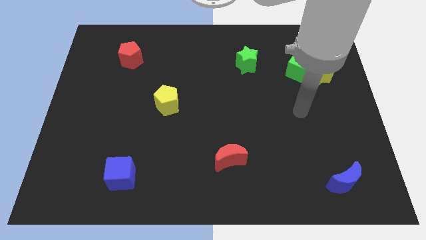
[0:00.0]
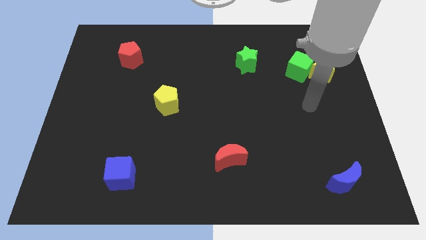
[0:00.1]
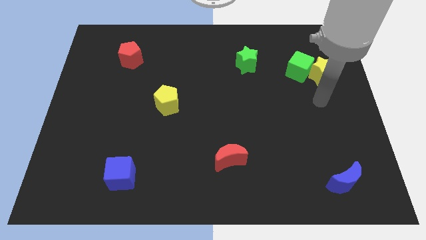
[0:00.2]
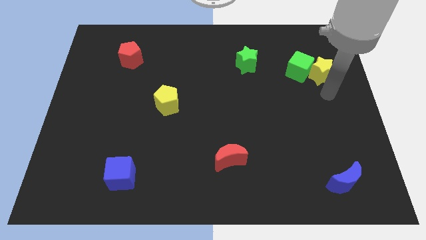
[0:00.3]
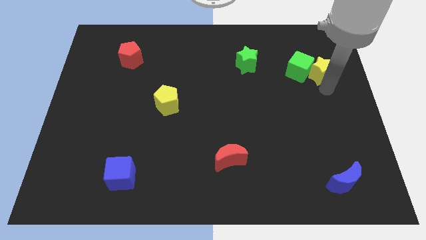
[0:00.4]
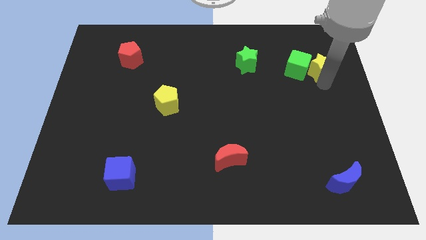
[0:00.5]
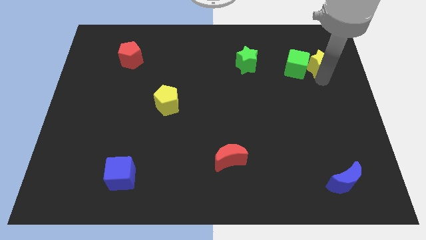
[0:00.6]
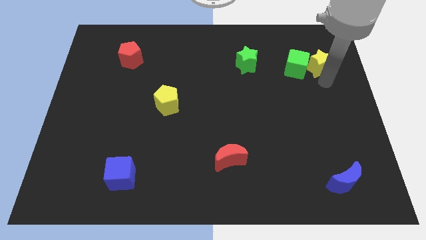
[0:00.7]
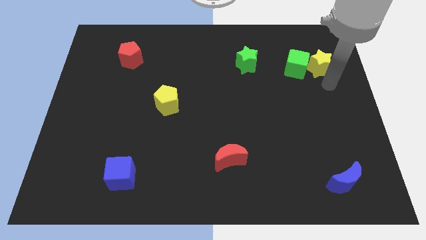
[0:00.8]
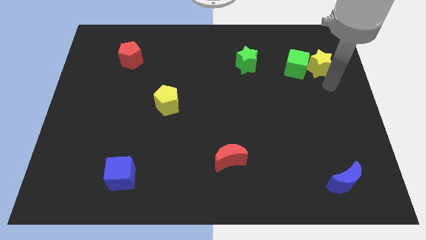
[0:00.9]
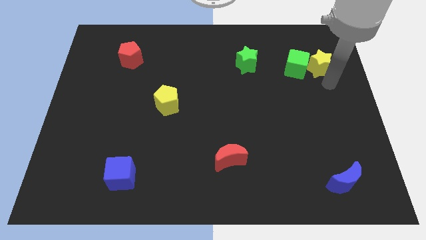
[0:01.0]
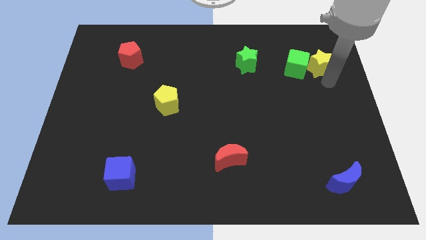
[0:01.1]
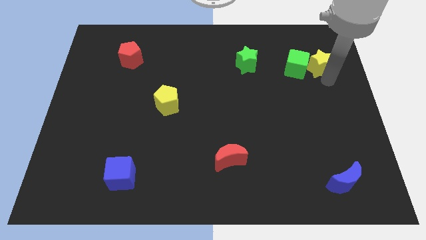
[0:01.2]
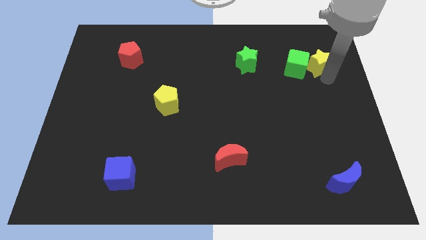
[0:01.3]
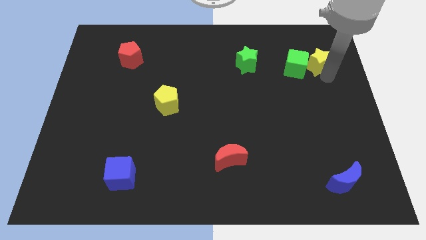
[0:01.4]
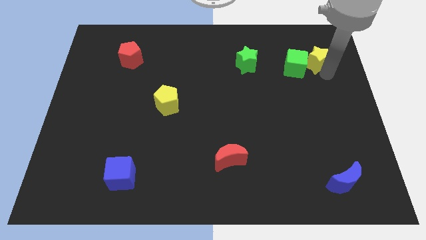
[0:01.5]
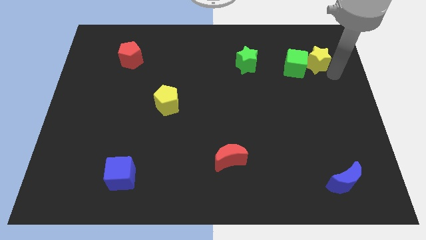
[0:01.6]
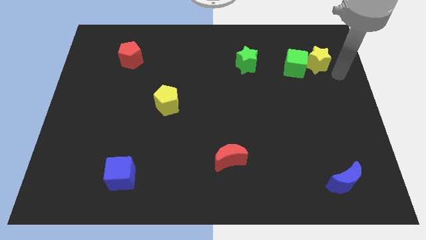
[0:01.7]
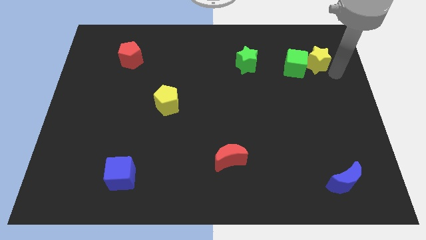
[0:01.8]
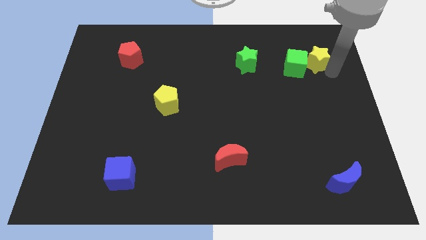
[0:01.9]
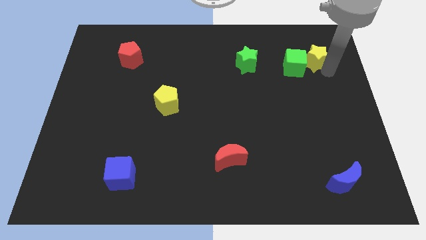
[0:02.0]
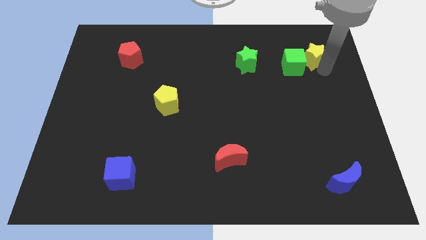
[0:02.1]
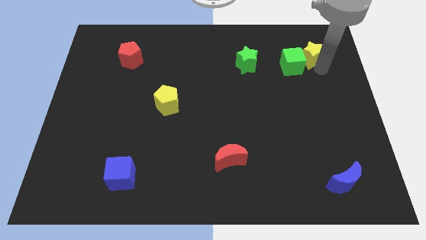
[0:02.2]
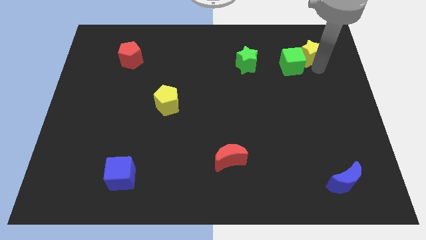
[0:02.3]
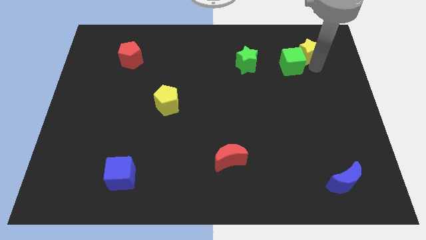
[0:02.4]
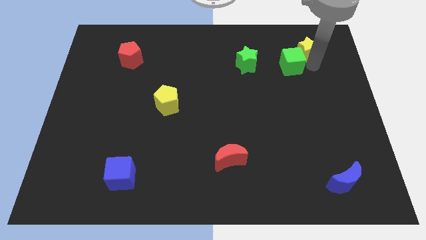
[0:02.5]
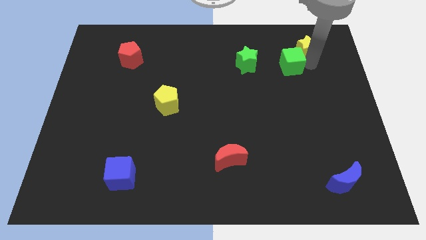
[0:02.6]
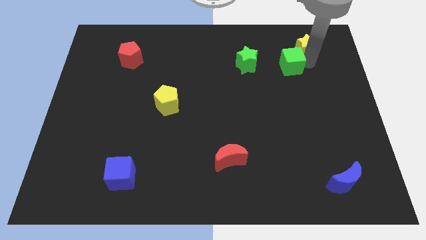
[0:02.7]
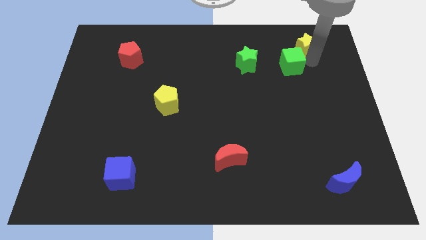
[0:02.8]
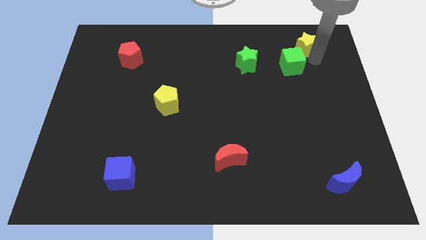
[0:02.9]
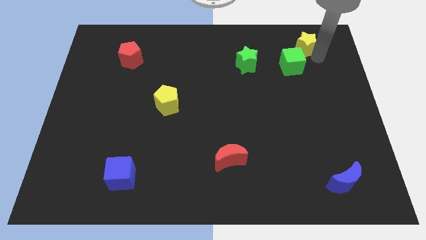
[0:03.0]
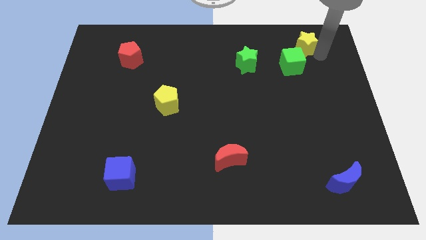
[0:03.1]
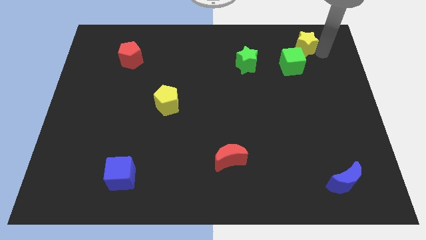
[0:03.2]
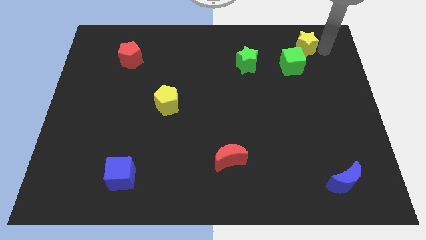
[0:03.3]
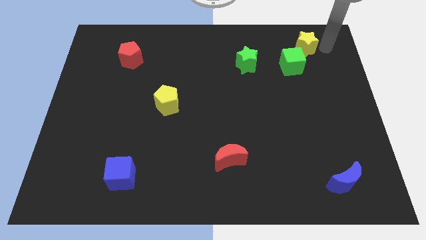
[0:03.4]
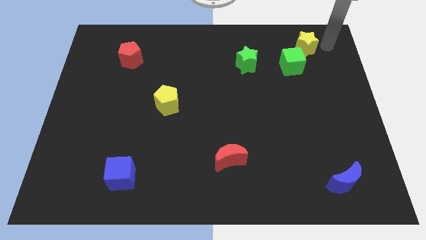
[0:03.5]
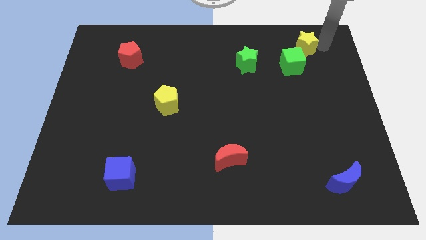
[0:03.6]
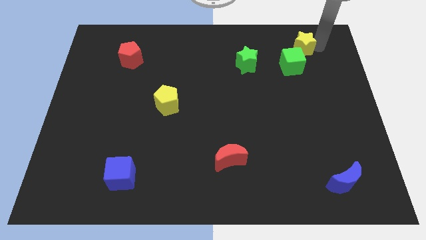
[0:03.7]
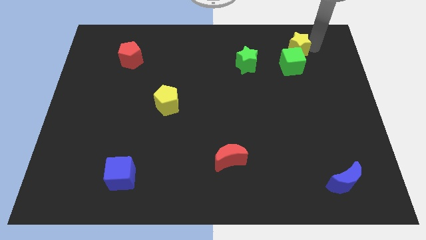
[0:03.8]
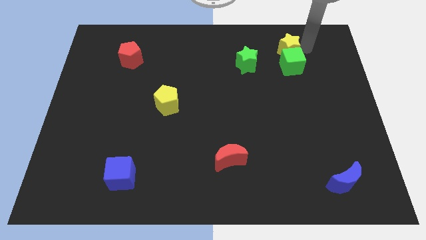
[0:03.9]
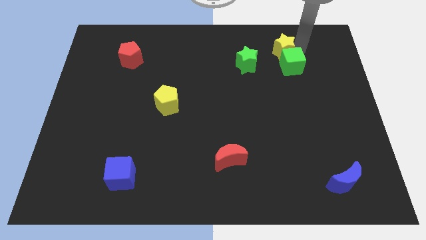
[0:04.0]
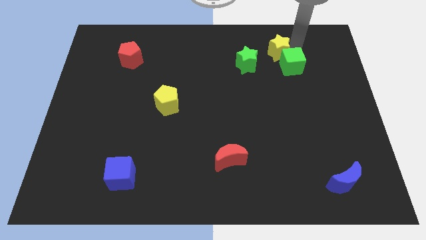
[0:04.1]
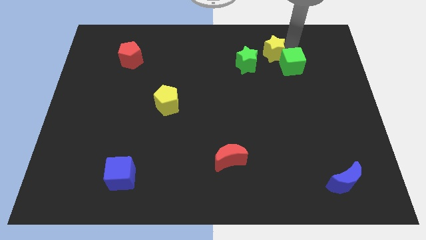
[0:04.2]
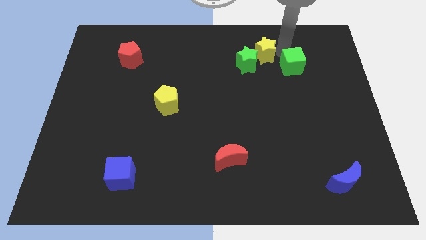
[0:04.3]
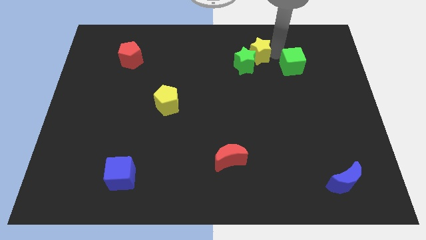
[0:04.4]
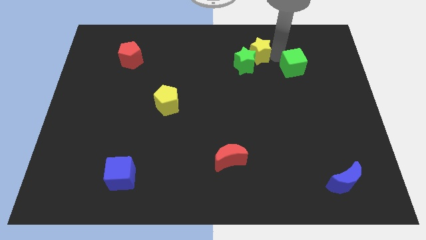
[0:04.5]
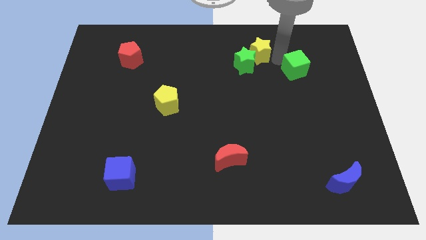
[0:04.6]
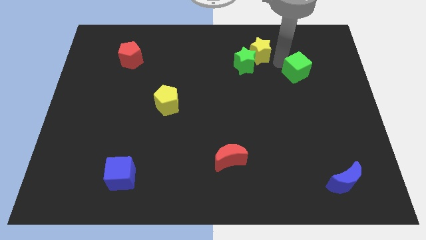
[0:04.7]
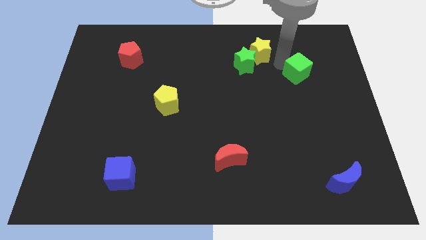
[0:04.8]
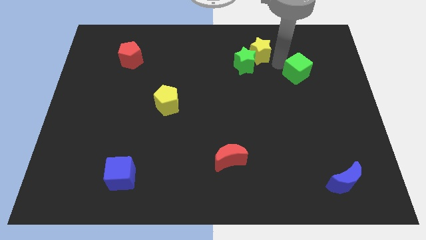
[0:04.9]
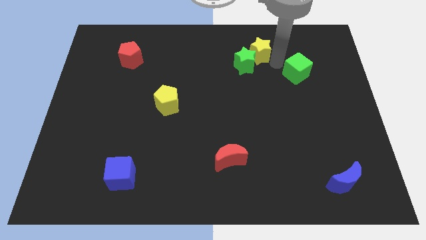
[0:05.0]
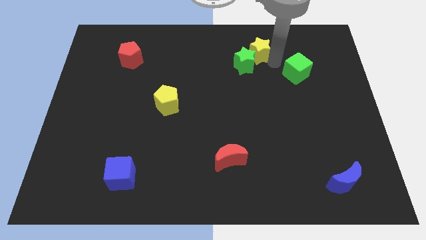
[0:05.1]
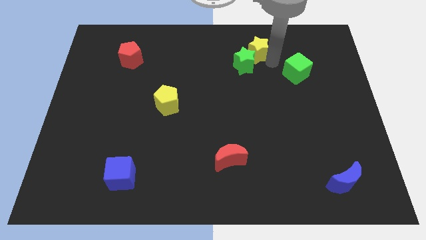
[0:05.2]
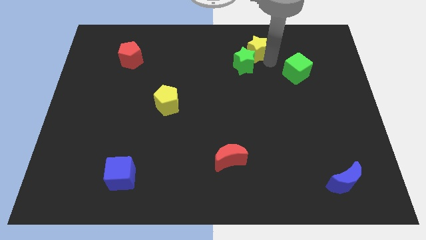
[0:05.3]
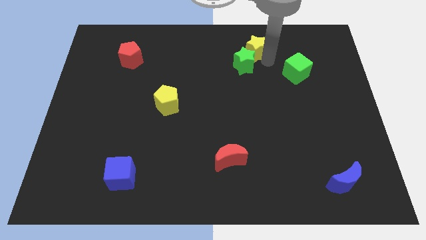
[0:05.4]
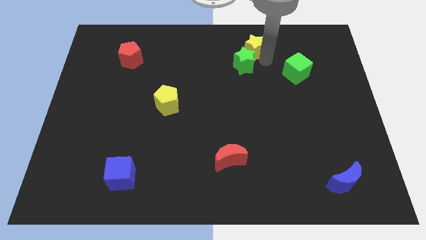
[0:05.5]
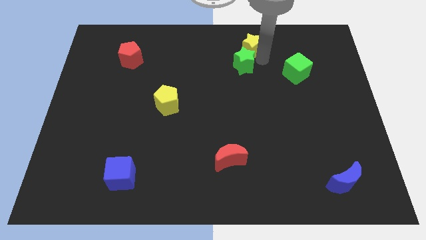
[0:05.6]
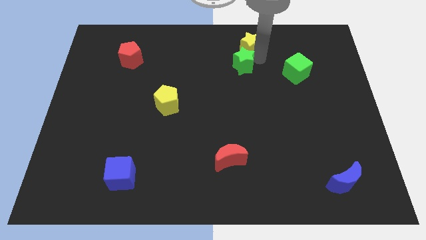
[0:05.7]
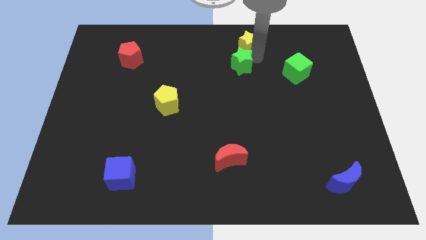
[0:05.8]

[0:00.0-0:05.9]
put the yellow star to the top side
